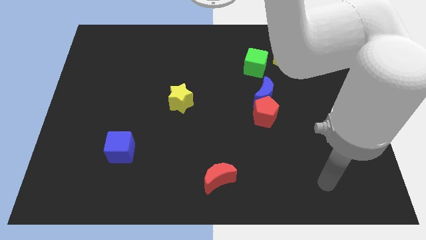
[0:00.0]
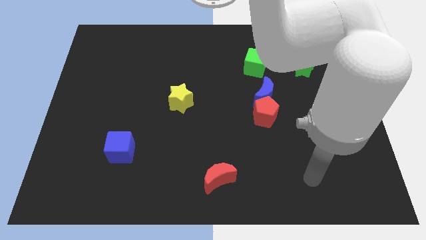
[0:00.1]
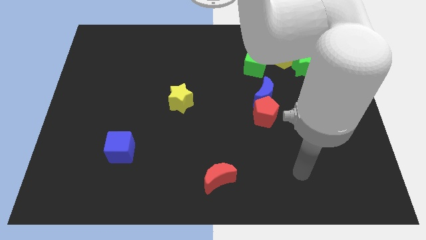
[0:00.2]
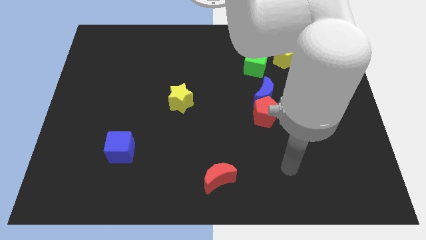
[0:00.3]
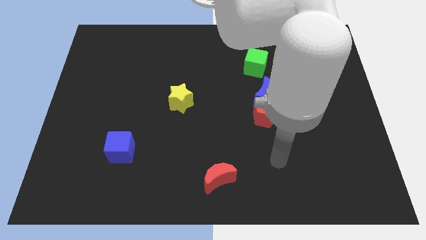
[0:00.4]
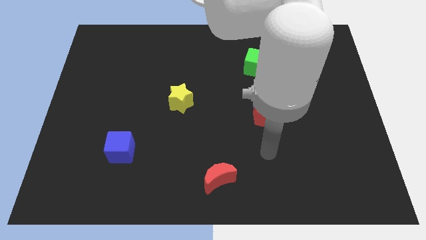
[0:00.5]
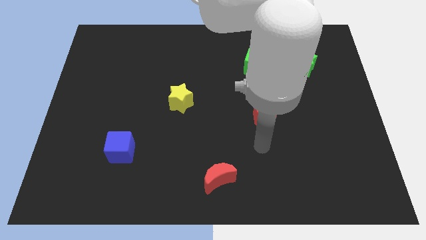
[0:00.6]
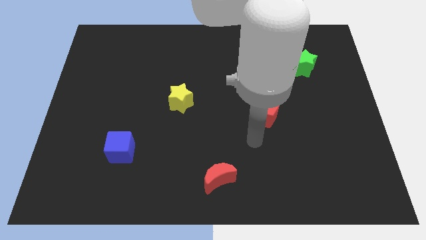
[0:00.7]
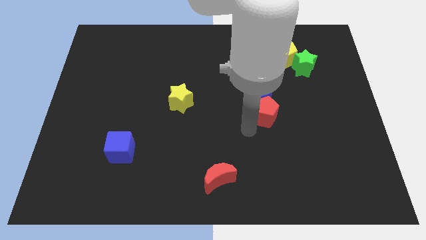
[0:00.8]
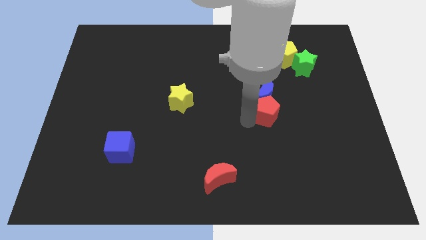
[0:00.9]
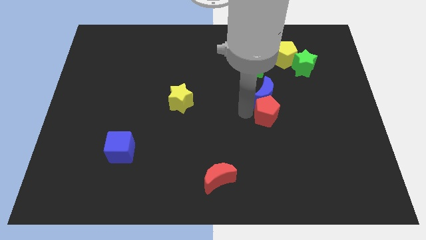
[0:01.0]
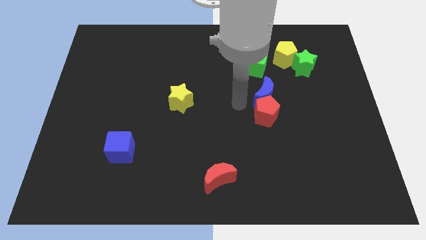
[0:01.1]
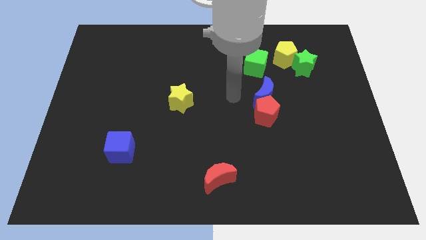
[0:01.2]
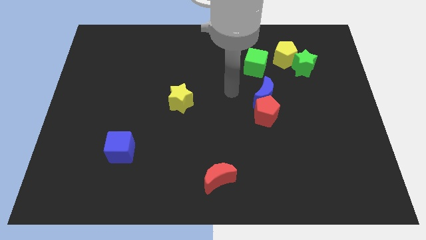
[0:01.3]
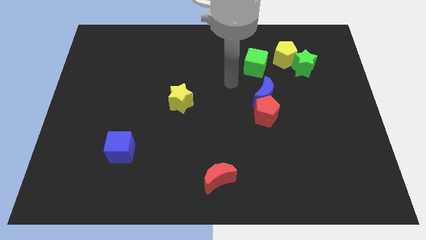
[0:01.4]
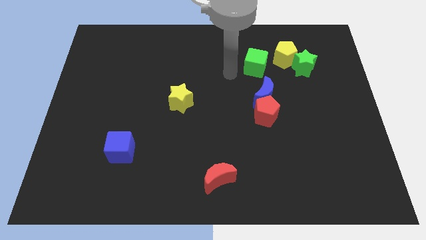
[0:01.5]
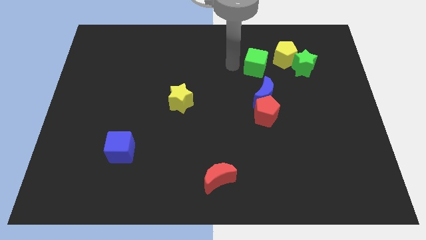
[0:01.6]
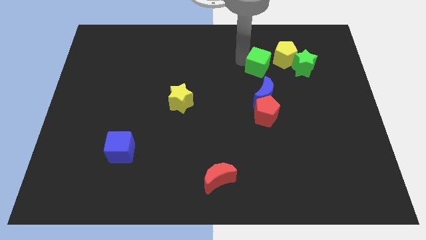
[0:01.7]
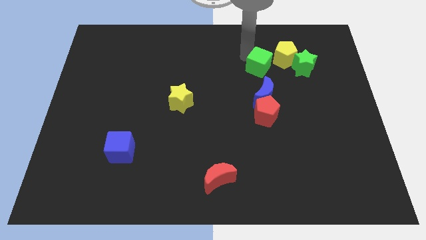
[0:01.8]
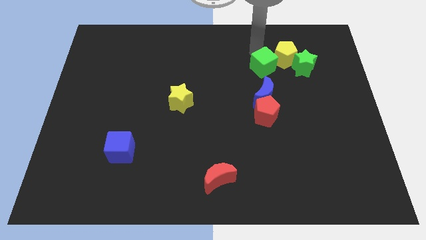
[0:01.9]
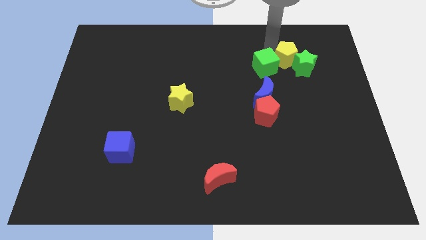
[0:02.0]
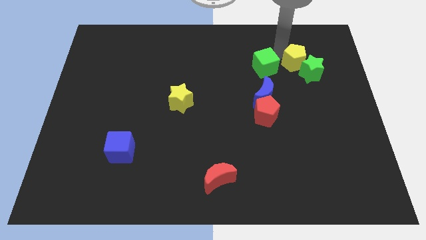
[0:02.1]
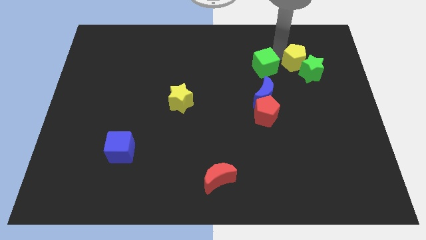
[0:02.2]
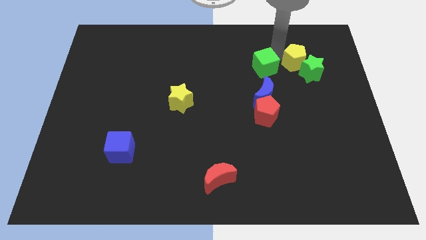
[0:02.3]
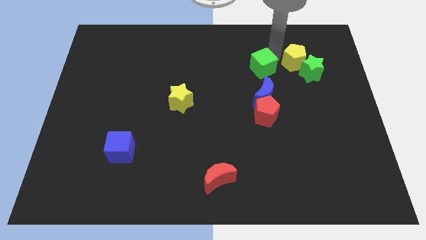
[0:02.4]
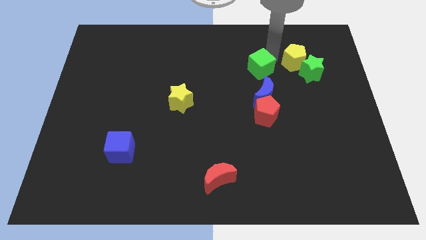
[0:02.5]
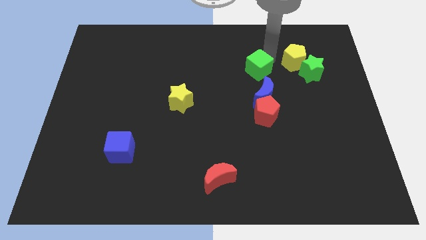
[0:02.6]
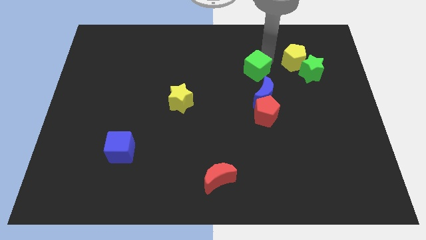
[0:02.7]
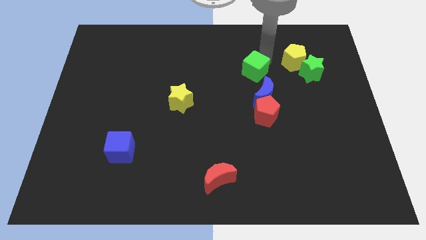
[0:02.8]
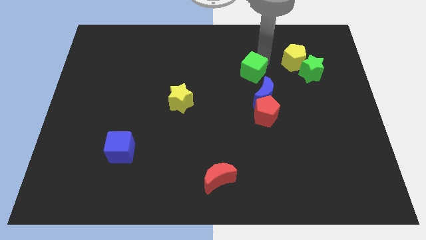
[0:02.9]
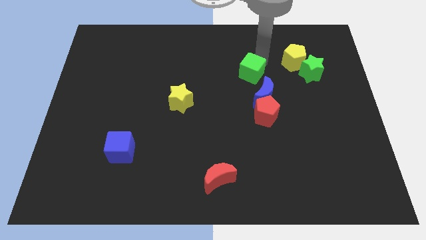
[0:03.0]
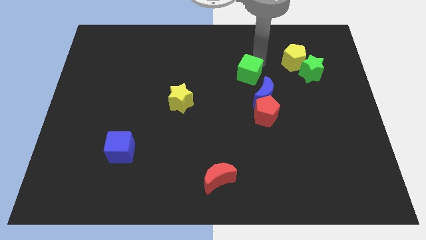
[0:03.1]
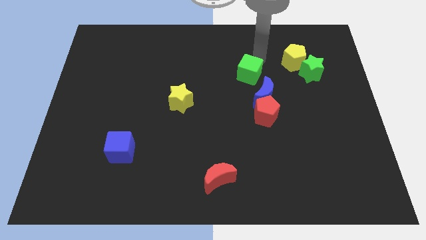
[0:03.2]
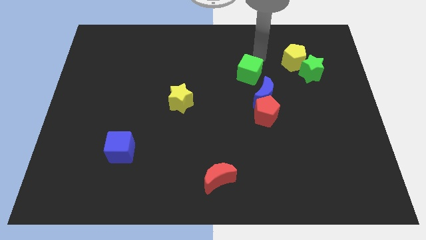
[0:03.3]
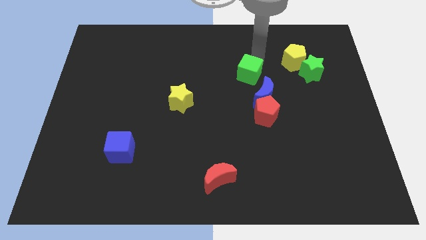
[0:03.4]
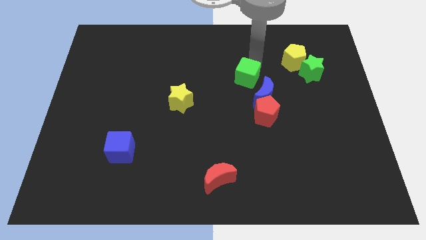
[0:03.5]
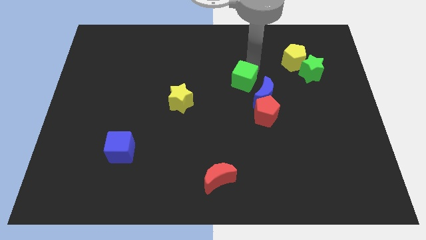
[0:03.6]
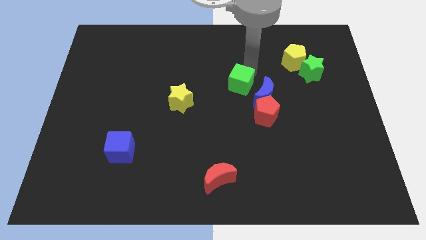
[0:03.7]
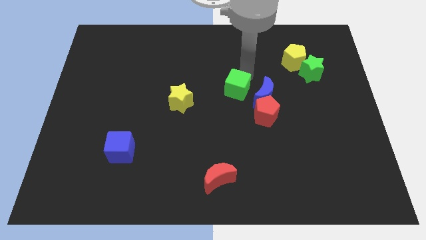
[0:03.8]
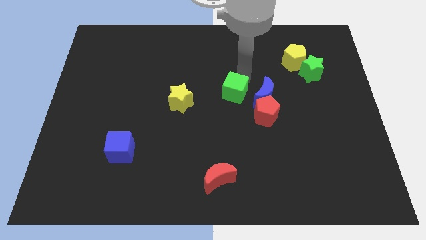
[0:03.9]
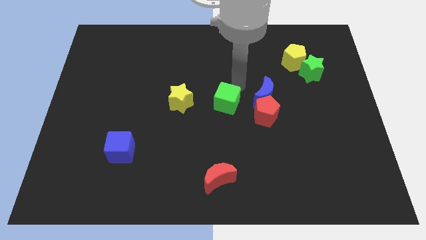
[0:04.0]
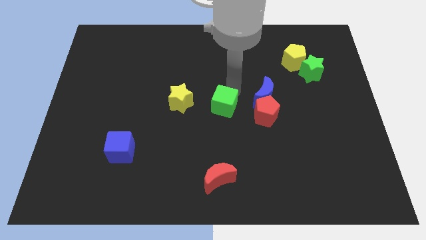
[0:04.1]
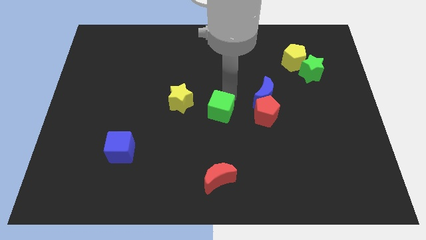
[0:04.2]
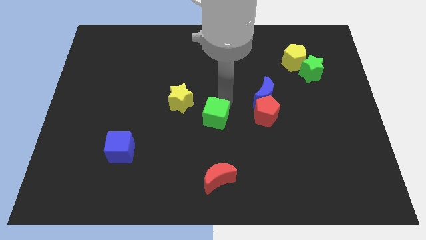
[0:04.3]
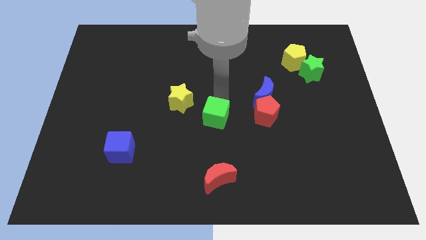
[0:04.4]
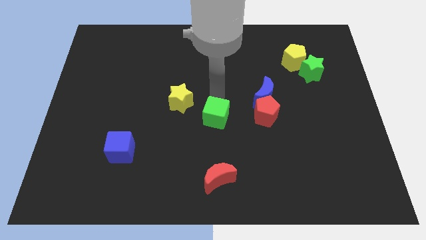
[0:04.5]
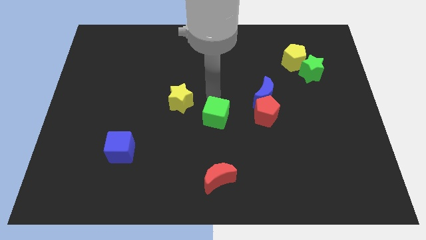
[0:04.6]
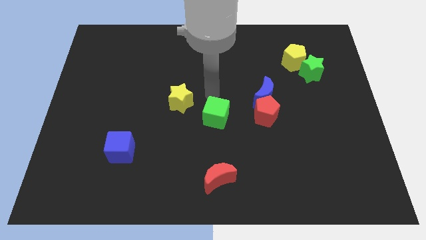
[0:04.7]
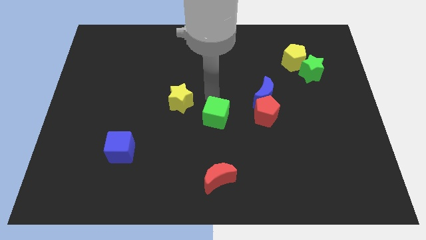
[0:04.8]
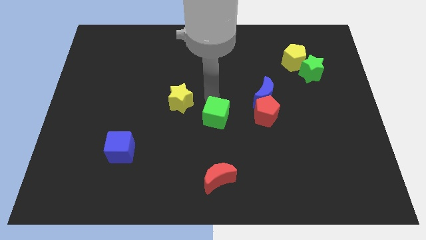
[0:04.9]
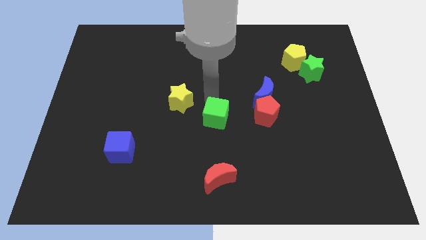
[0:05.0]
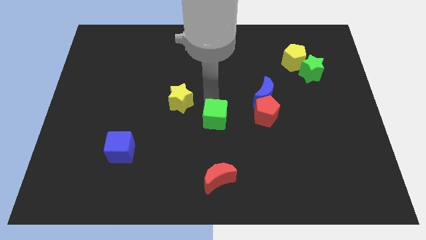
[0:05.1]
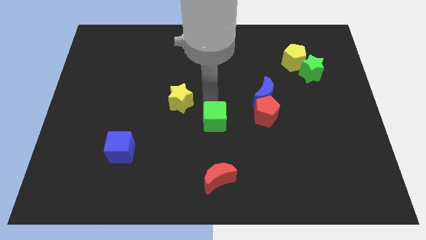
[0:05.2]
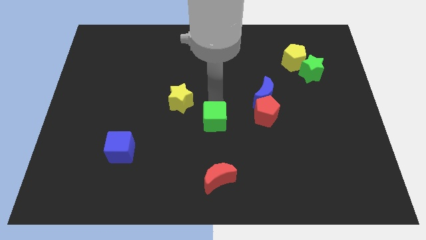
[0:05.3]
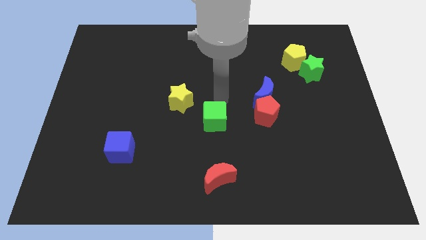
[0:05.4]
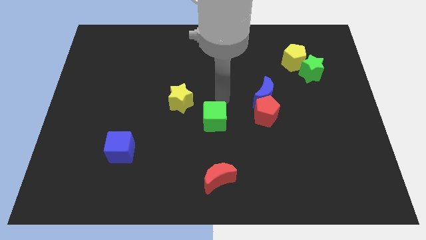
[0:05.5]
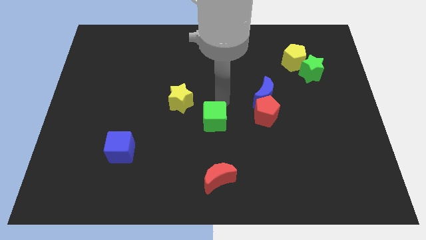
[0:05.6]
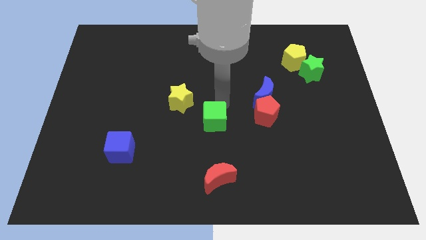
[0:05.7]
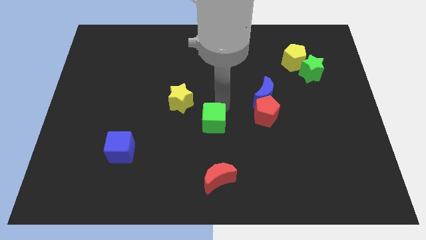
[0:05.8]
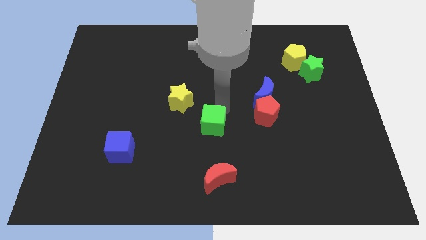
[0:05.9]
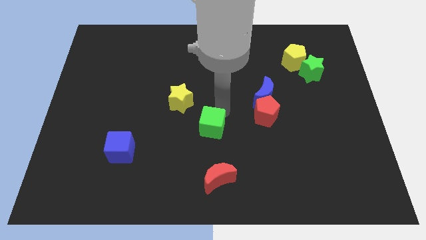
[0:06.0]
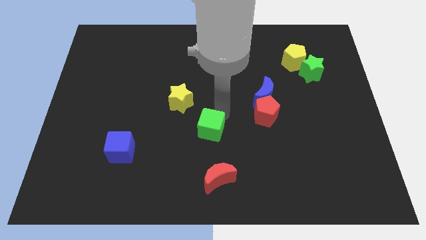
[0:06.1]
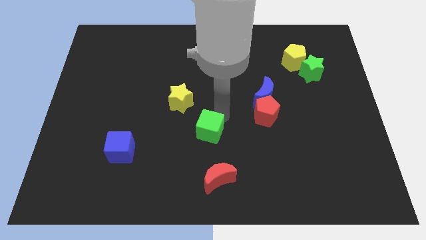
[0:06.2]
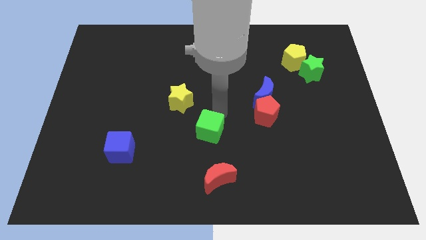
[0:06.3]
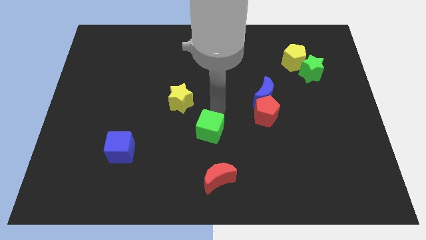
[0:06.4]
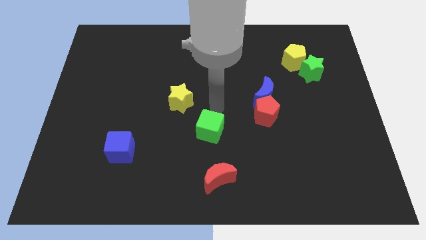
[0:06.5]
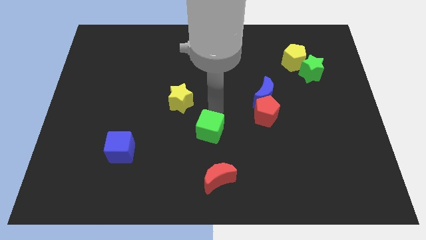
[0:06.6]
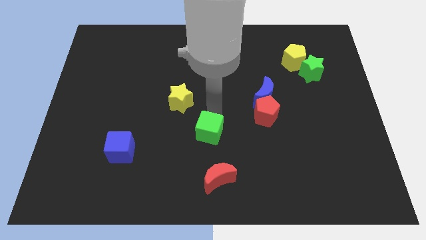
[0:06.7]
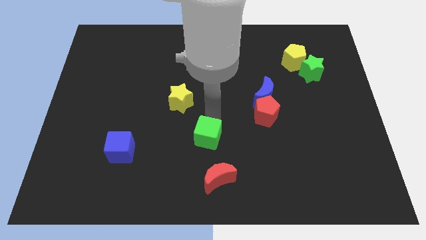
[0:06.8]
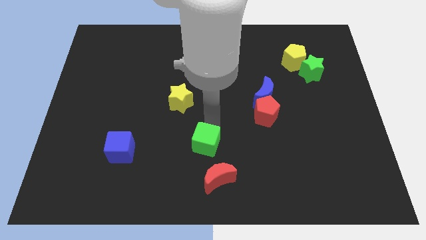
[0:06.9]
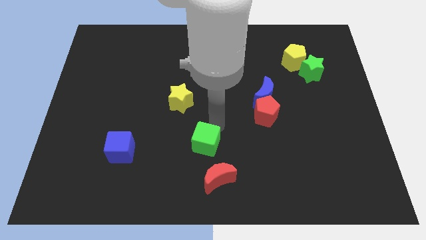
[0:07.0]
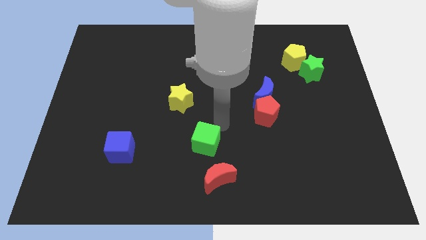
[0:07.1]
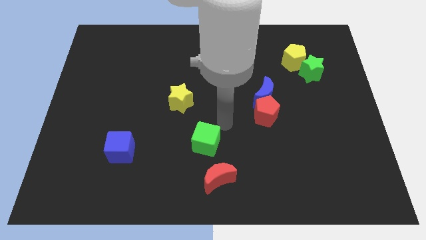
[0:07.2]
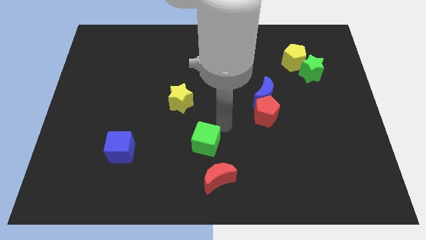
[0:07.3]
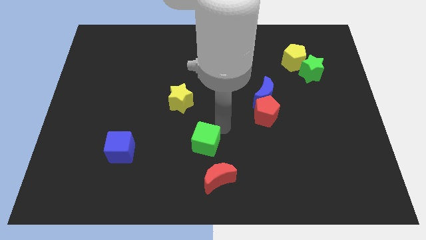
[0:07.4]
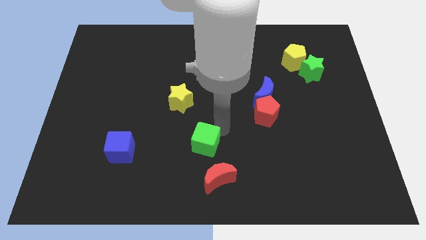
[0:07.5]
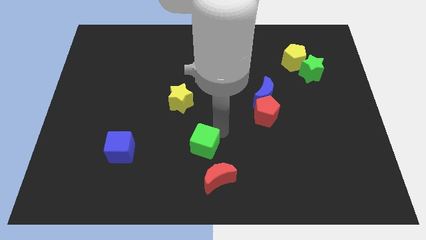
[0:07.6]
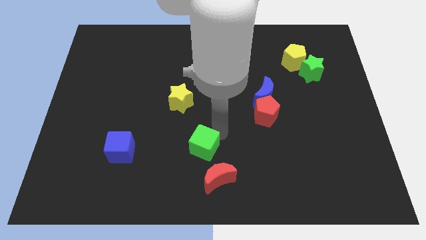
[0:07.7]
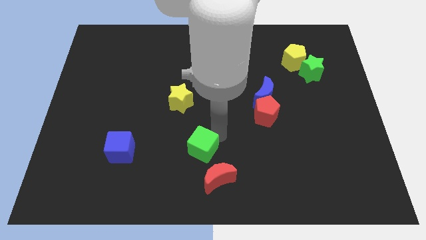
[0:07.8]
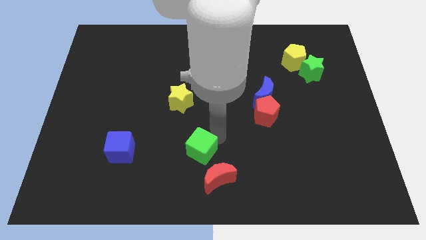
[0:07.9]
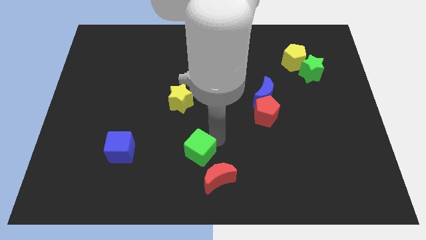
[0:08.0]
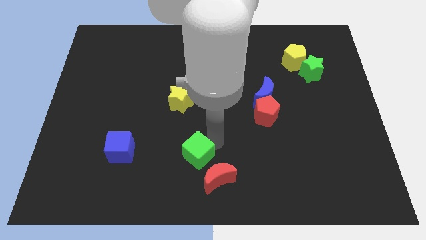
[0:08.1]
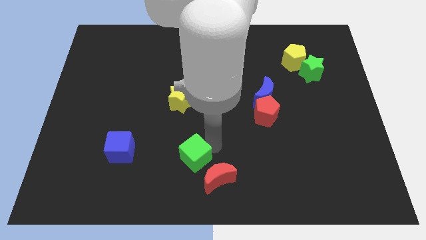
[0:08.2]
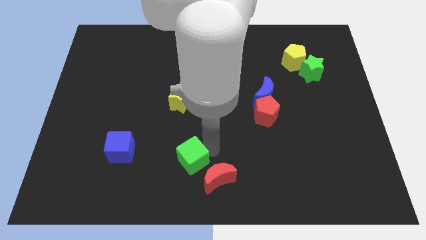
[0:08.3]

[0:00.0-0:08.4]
put the green cube just left of the red moon
